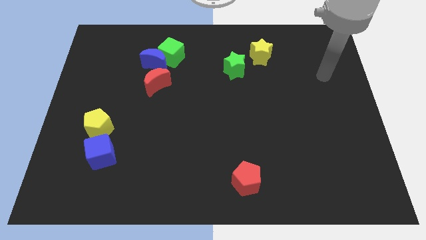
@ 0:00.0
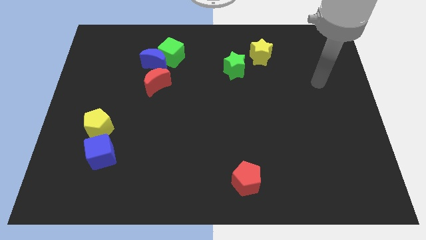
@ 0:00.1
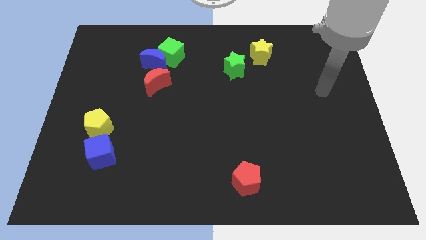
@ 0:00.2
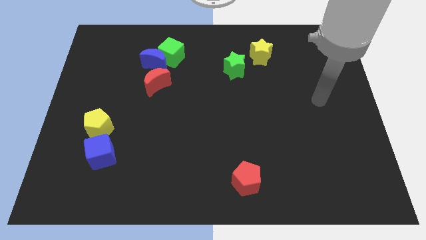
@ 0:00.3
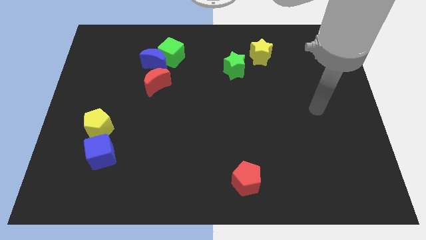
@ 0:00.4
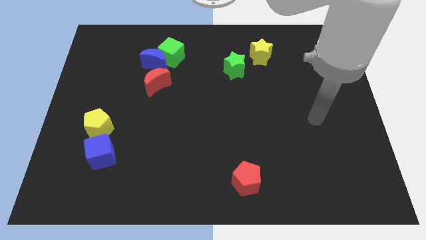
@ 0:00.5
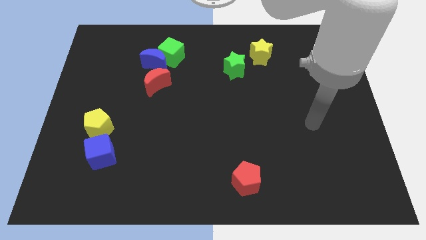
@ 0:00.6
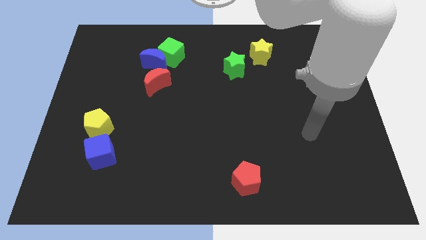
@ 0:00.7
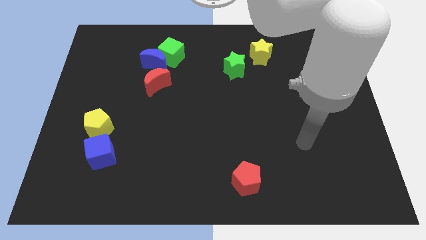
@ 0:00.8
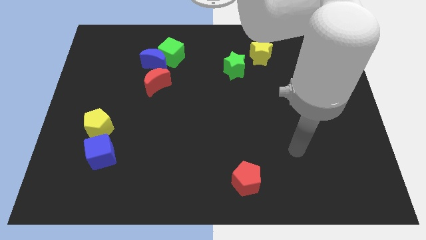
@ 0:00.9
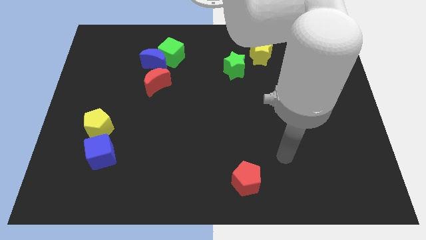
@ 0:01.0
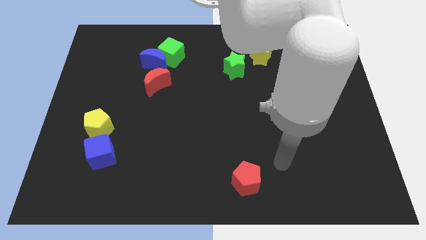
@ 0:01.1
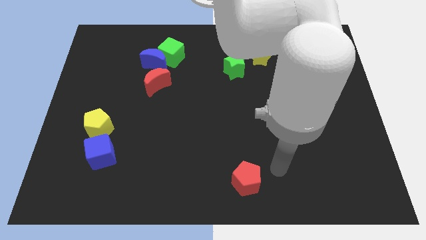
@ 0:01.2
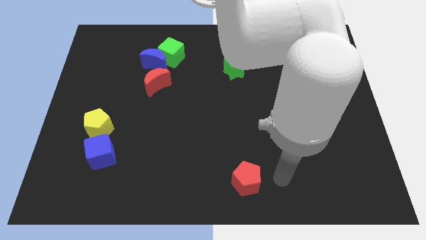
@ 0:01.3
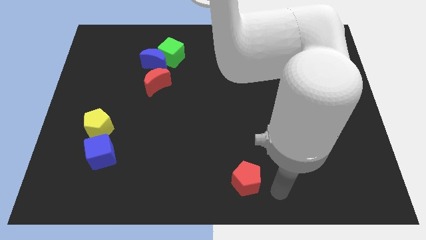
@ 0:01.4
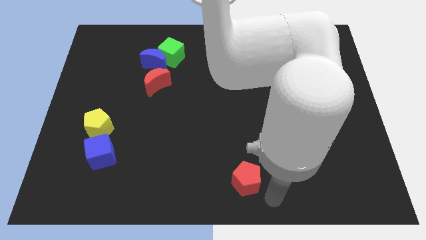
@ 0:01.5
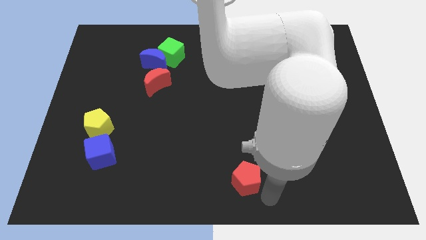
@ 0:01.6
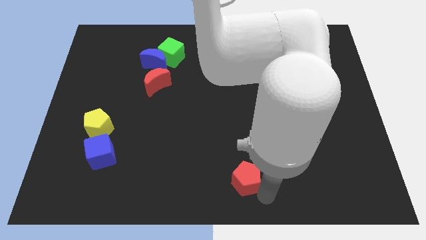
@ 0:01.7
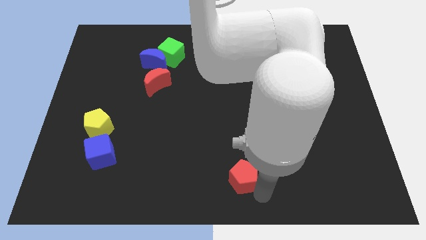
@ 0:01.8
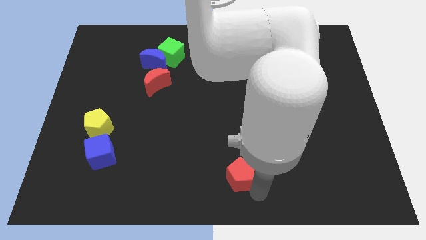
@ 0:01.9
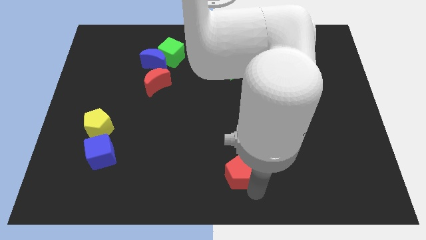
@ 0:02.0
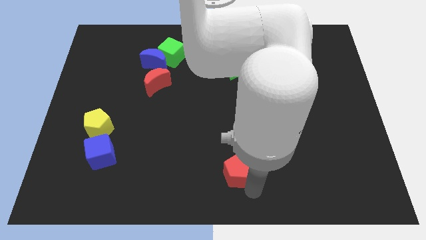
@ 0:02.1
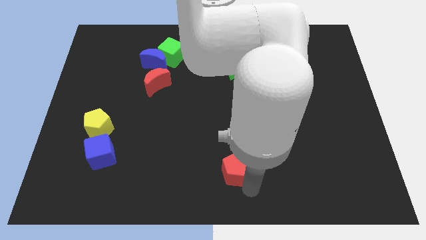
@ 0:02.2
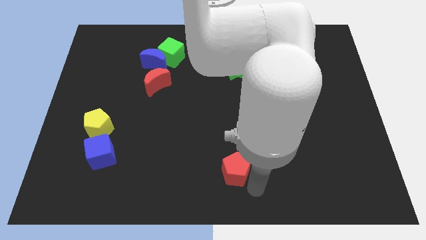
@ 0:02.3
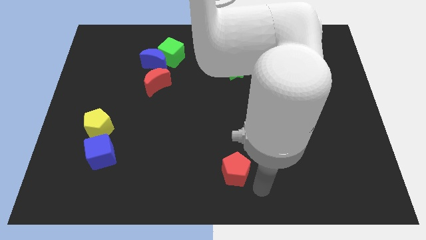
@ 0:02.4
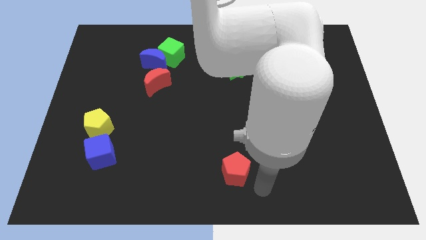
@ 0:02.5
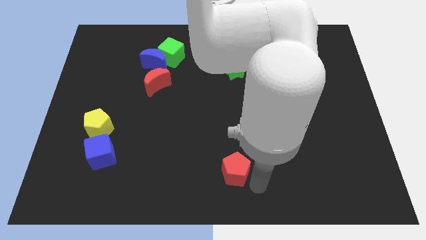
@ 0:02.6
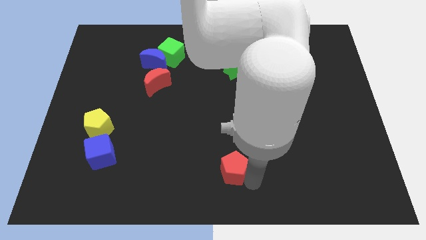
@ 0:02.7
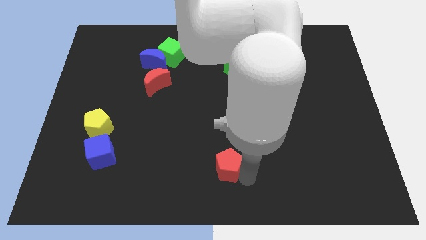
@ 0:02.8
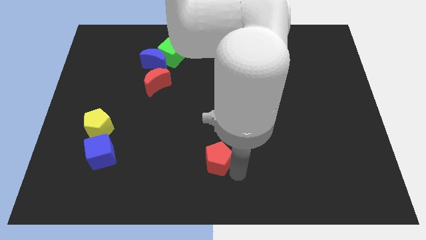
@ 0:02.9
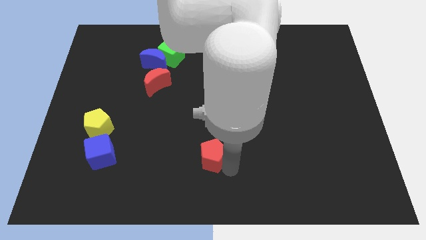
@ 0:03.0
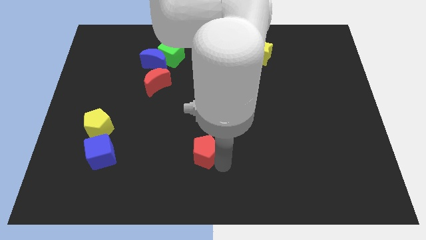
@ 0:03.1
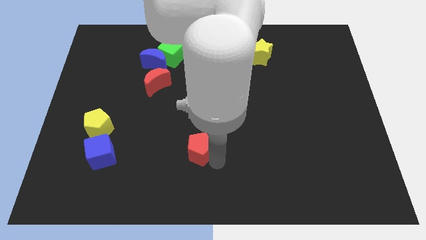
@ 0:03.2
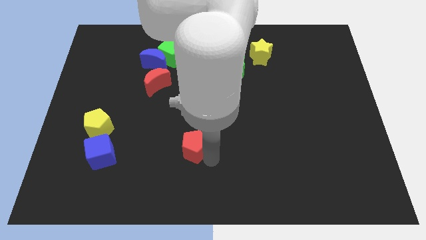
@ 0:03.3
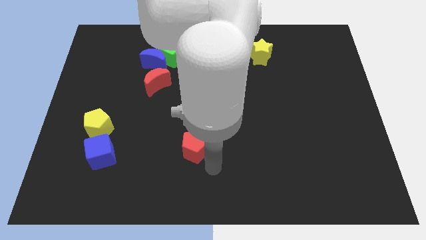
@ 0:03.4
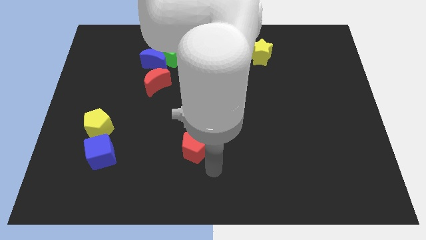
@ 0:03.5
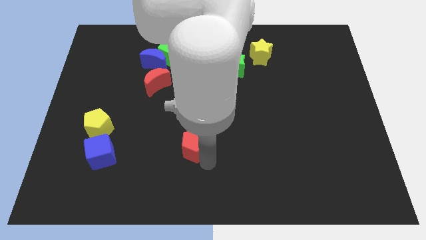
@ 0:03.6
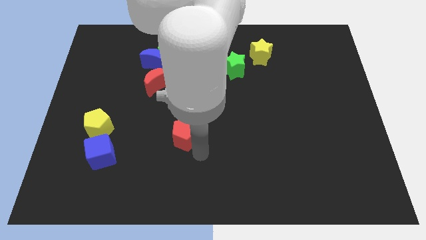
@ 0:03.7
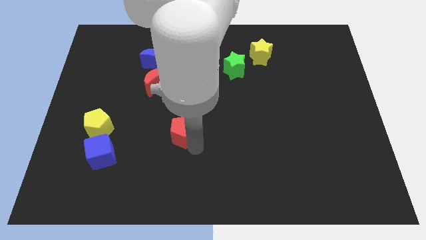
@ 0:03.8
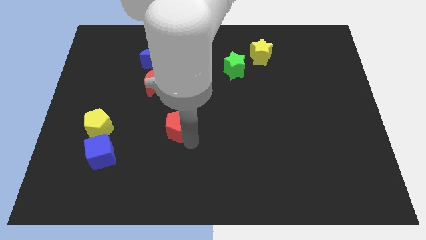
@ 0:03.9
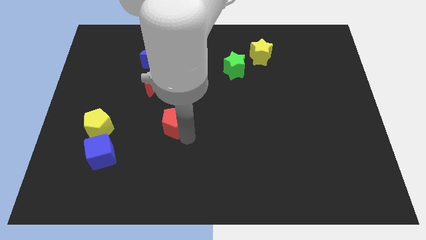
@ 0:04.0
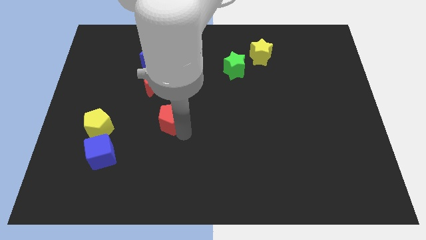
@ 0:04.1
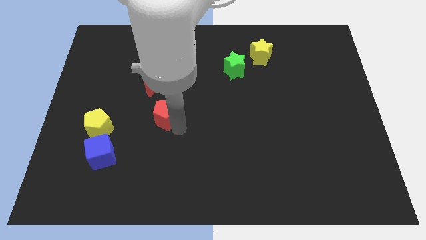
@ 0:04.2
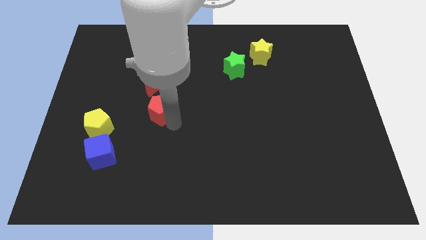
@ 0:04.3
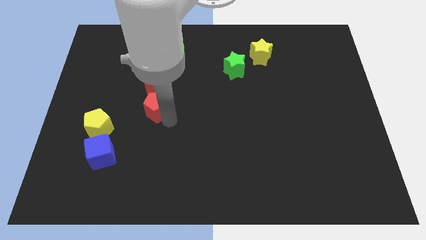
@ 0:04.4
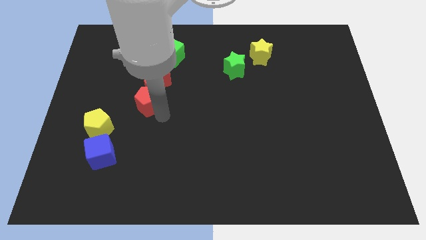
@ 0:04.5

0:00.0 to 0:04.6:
slide the red pentagon to the red moon

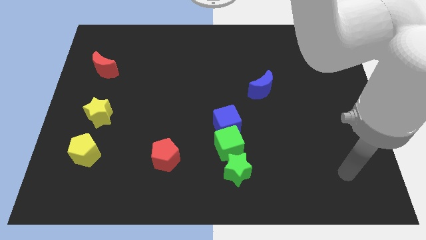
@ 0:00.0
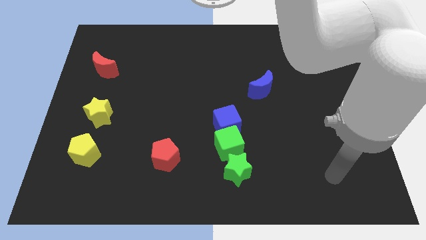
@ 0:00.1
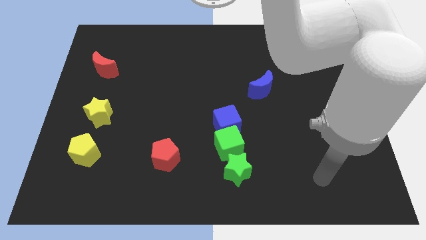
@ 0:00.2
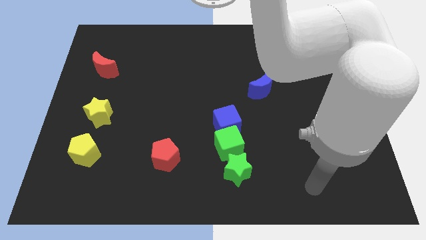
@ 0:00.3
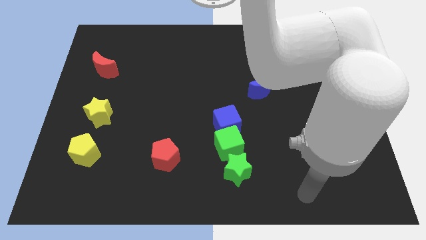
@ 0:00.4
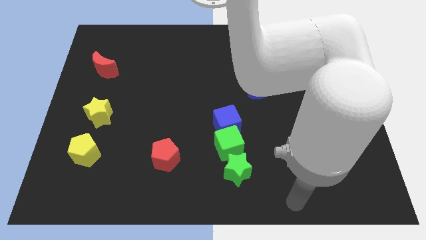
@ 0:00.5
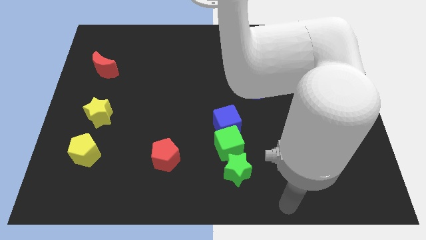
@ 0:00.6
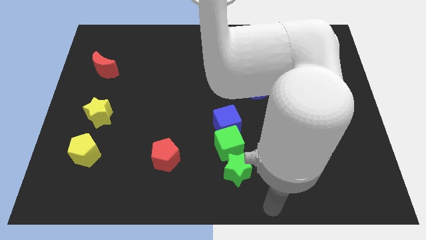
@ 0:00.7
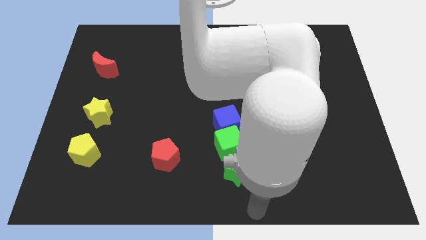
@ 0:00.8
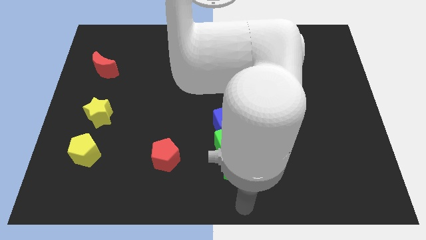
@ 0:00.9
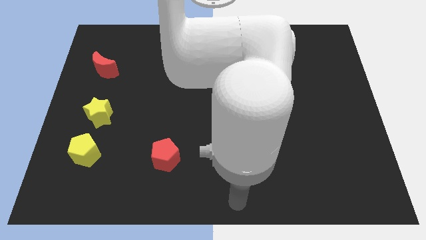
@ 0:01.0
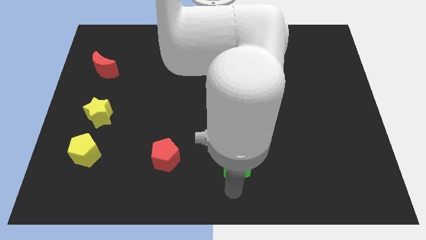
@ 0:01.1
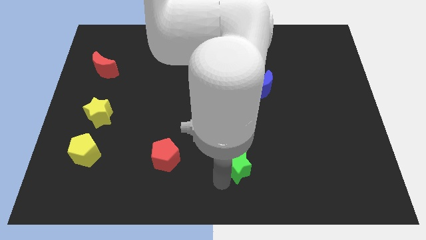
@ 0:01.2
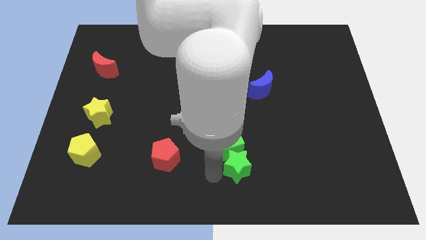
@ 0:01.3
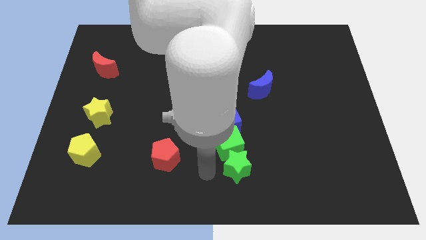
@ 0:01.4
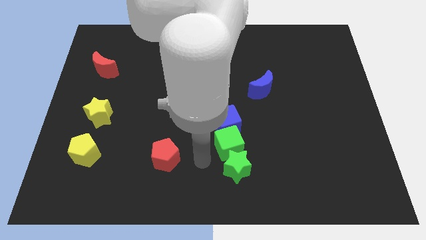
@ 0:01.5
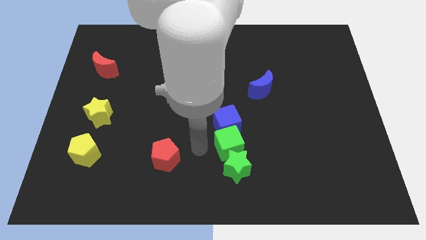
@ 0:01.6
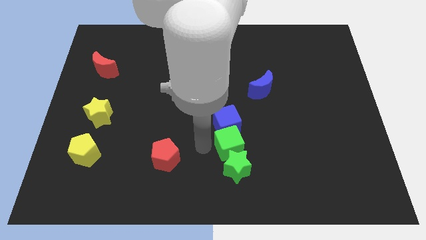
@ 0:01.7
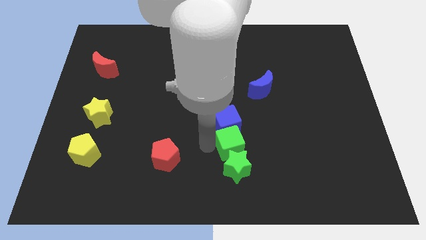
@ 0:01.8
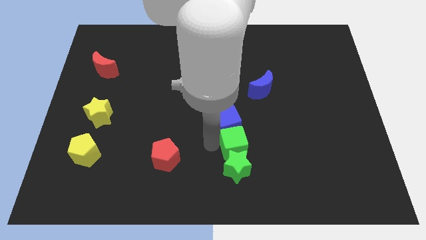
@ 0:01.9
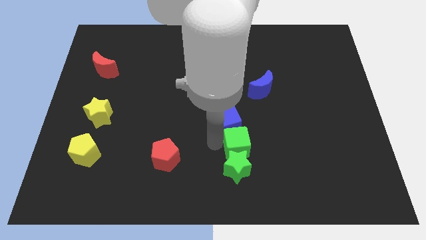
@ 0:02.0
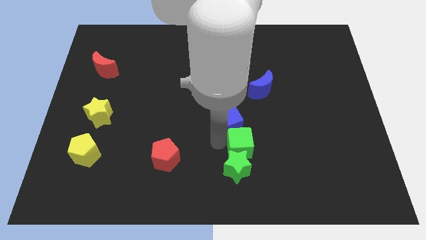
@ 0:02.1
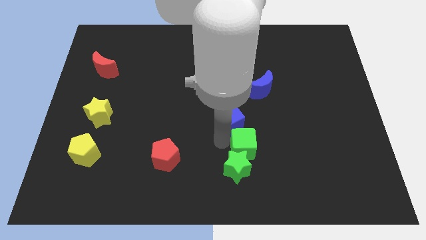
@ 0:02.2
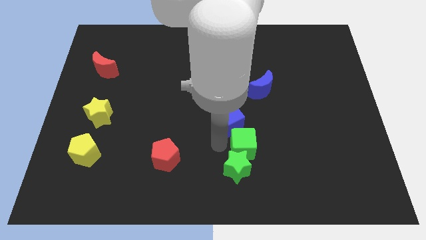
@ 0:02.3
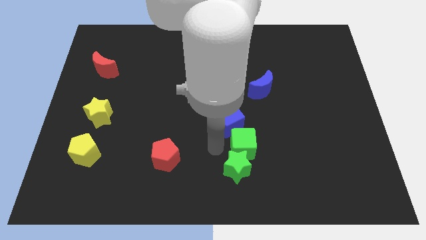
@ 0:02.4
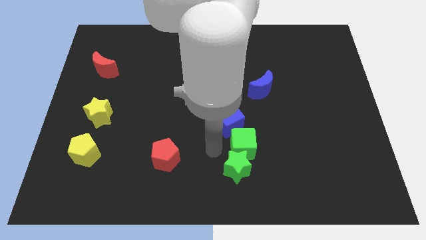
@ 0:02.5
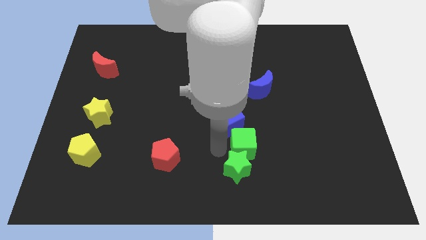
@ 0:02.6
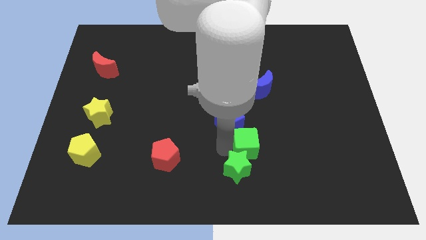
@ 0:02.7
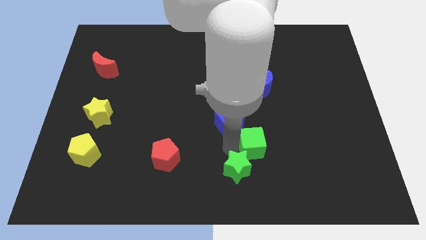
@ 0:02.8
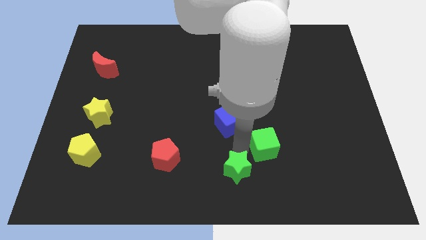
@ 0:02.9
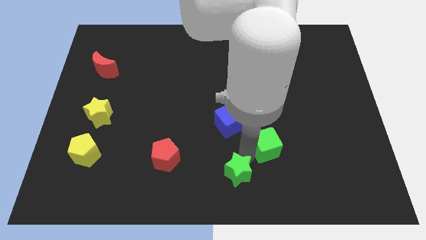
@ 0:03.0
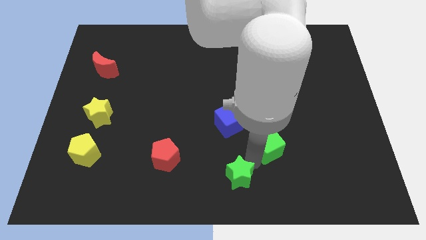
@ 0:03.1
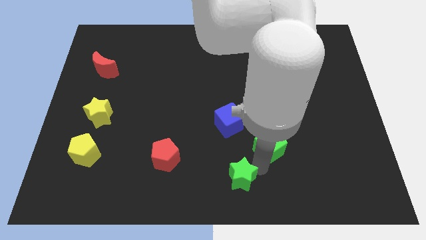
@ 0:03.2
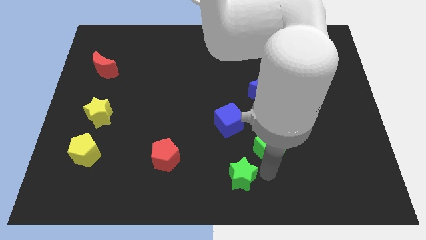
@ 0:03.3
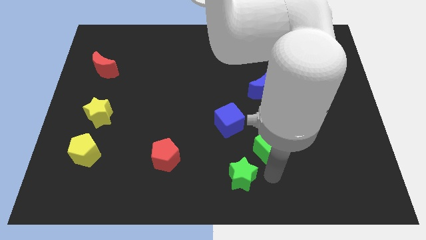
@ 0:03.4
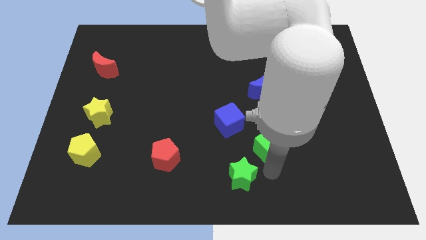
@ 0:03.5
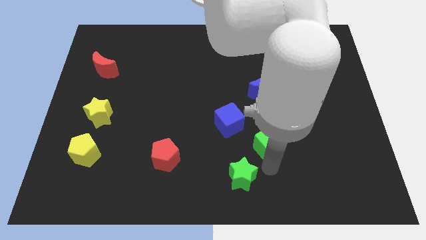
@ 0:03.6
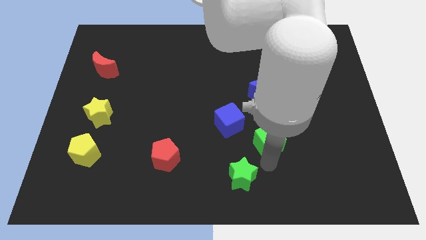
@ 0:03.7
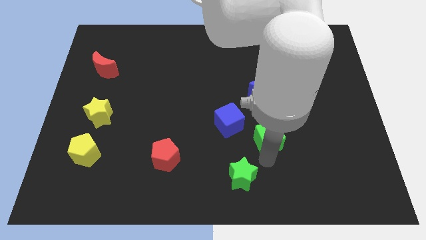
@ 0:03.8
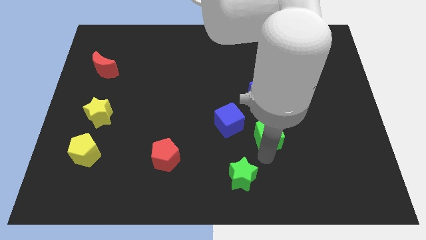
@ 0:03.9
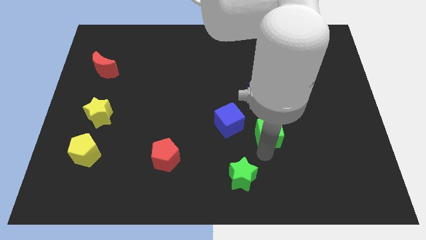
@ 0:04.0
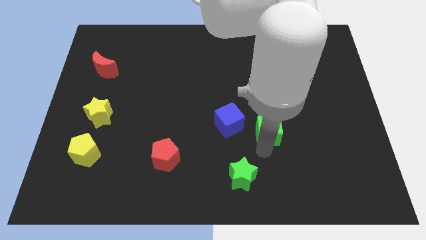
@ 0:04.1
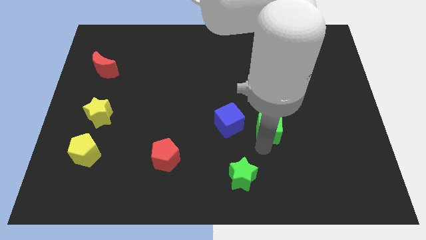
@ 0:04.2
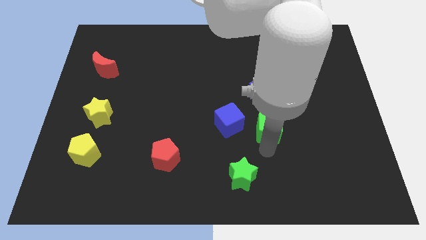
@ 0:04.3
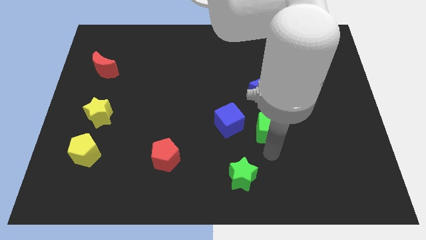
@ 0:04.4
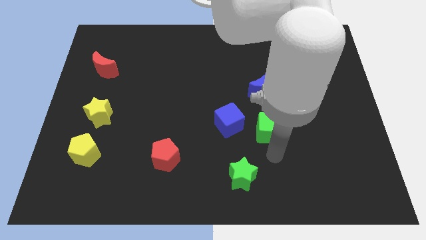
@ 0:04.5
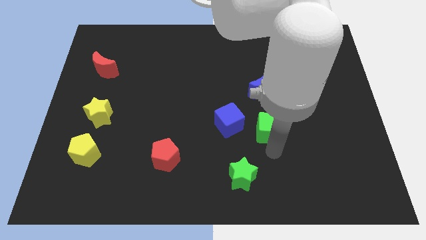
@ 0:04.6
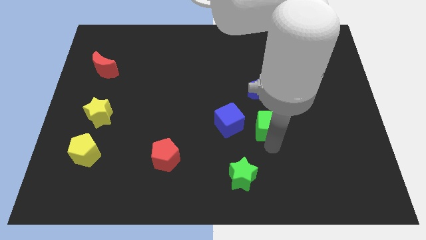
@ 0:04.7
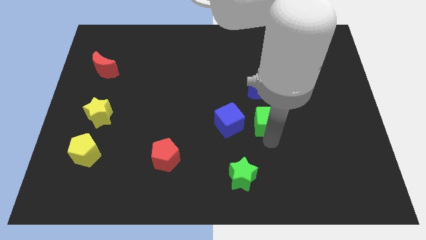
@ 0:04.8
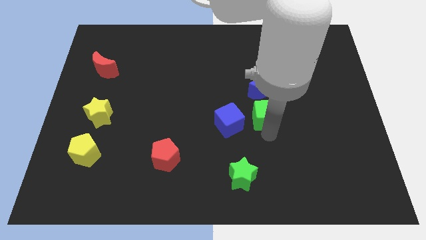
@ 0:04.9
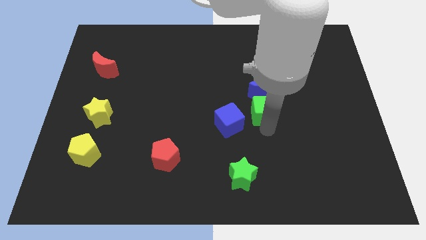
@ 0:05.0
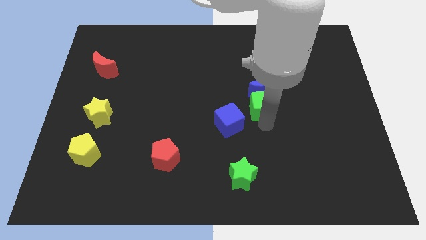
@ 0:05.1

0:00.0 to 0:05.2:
move the green cube next to the blue moon
